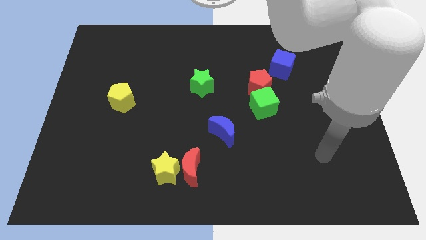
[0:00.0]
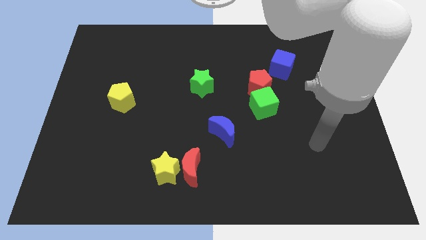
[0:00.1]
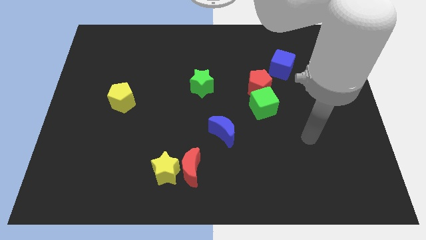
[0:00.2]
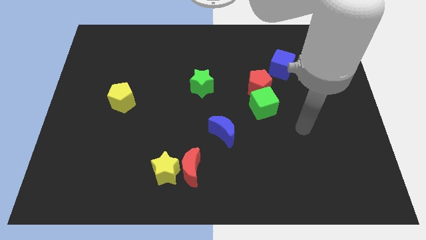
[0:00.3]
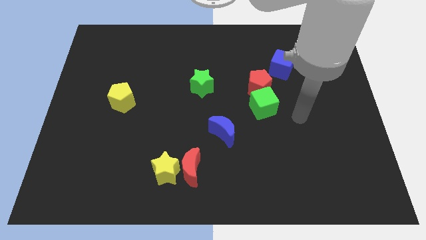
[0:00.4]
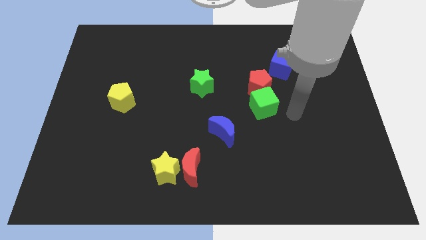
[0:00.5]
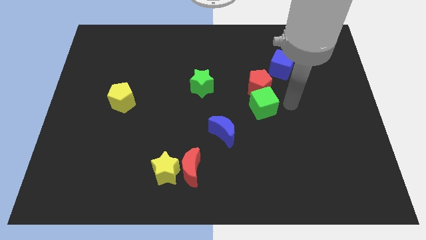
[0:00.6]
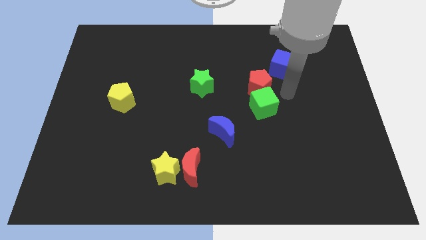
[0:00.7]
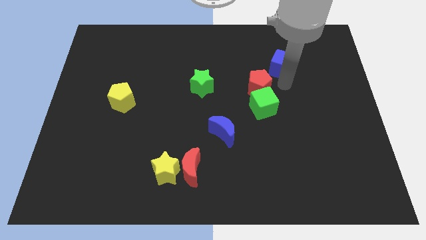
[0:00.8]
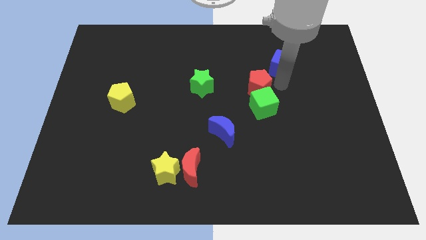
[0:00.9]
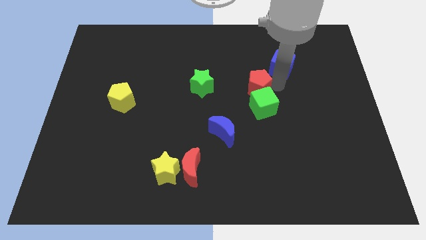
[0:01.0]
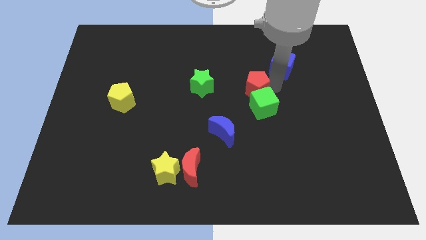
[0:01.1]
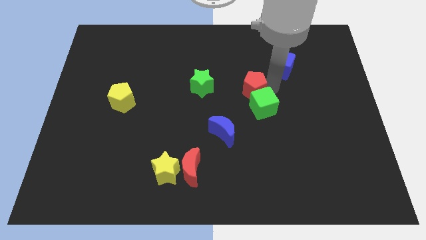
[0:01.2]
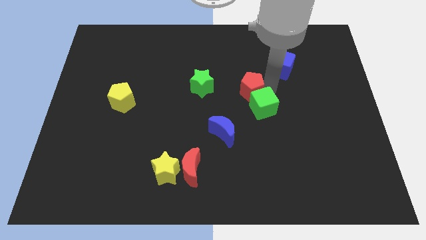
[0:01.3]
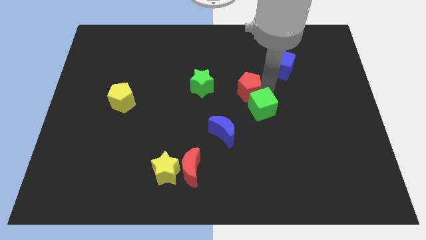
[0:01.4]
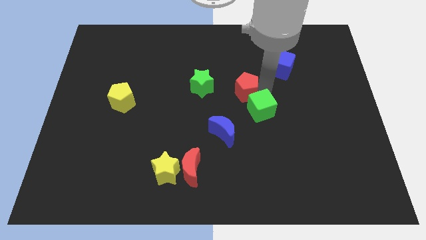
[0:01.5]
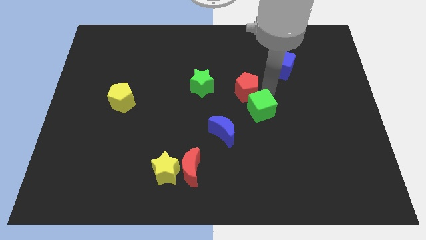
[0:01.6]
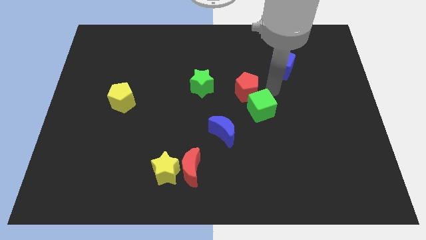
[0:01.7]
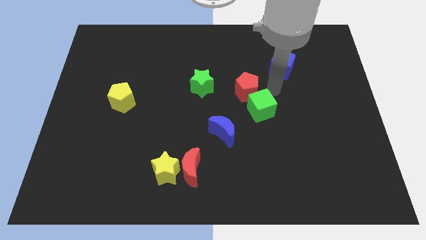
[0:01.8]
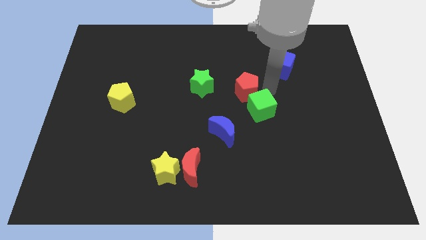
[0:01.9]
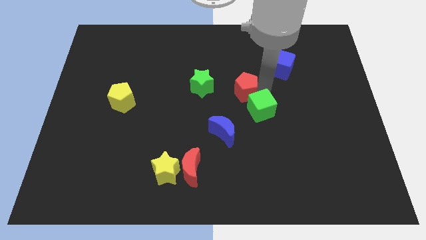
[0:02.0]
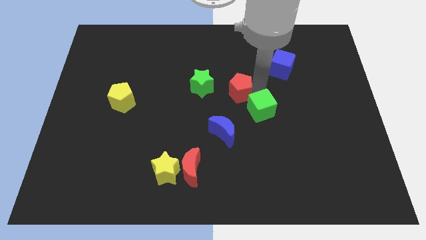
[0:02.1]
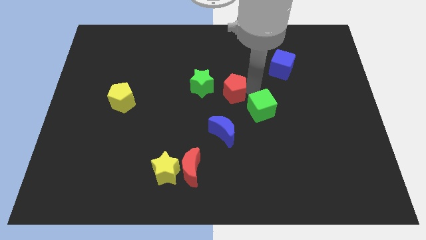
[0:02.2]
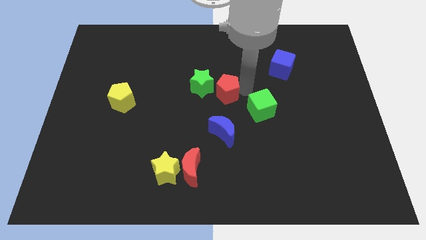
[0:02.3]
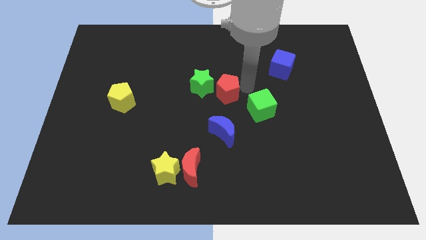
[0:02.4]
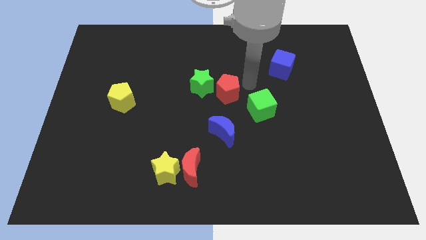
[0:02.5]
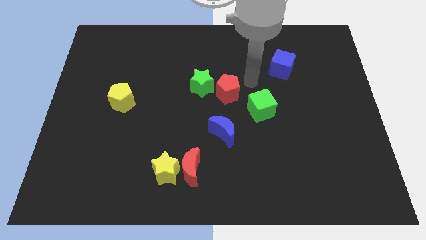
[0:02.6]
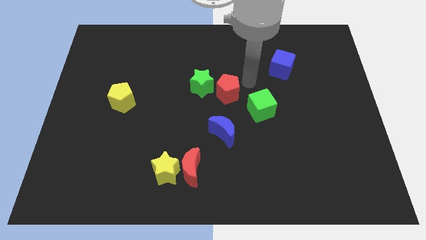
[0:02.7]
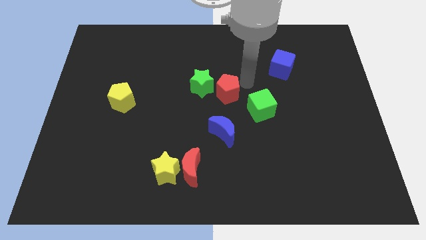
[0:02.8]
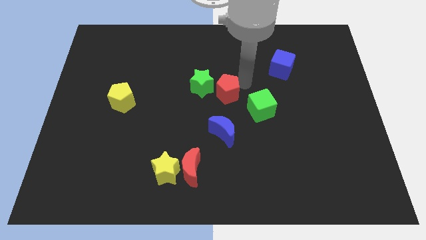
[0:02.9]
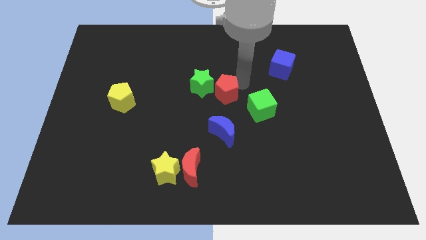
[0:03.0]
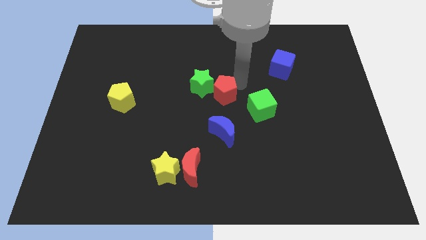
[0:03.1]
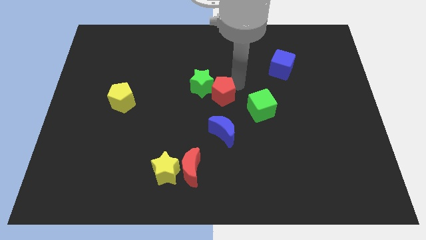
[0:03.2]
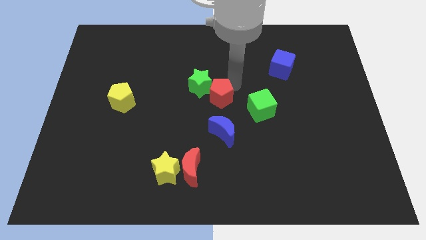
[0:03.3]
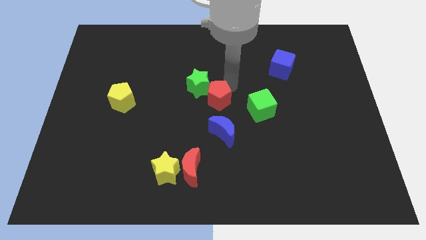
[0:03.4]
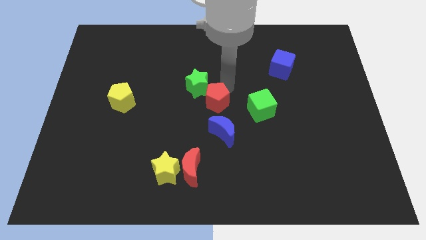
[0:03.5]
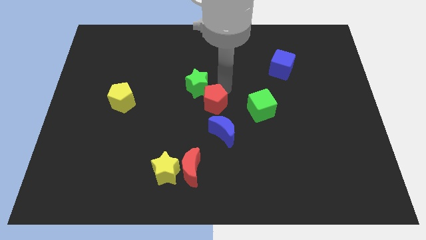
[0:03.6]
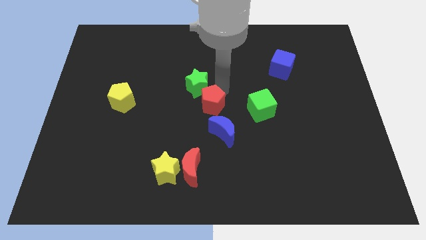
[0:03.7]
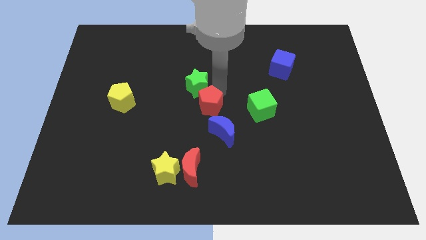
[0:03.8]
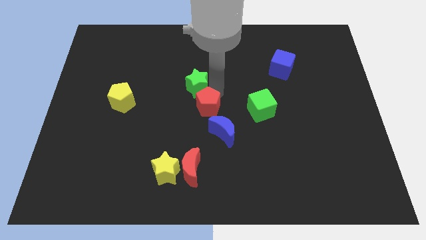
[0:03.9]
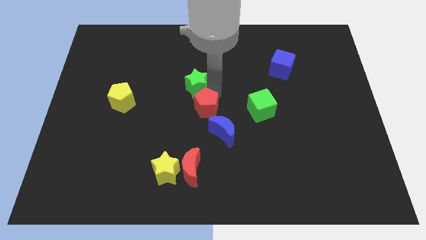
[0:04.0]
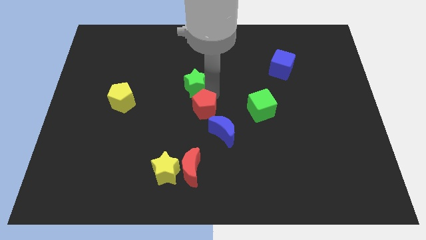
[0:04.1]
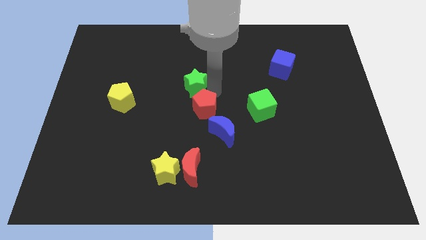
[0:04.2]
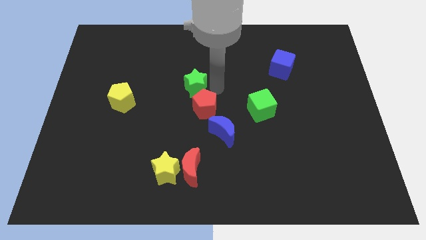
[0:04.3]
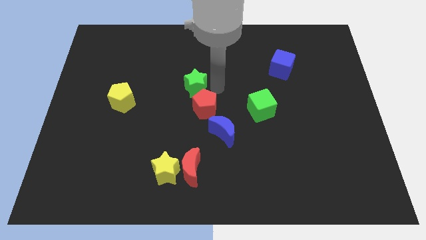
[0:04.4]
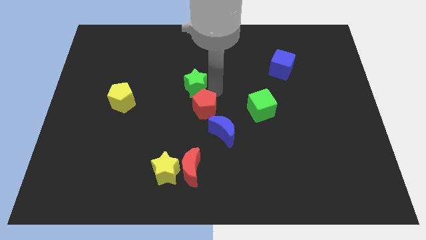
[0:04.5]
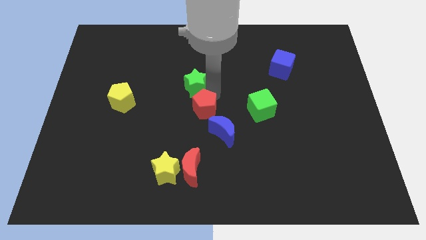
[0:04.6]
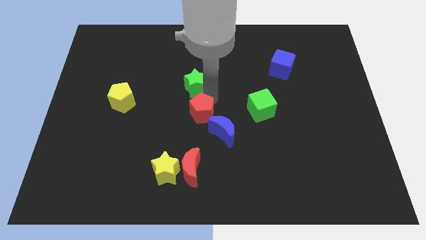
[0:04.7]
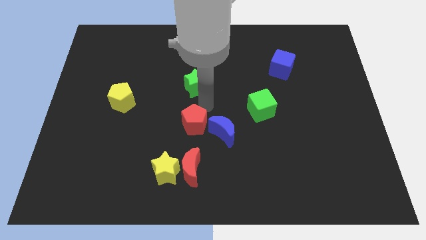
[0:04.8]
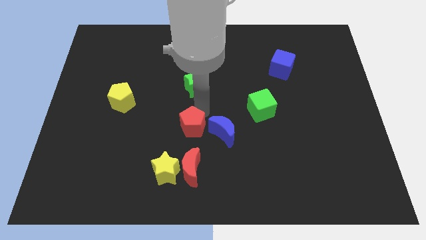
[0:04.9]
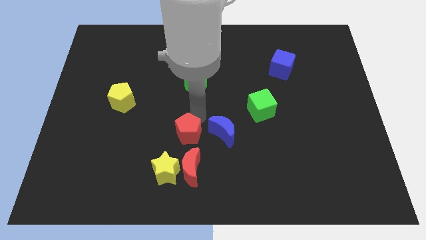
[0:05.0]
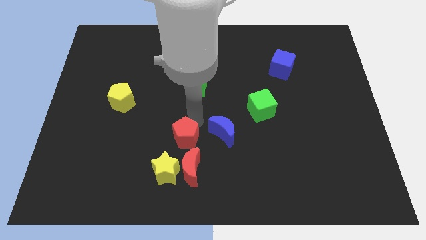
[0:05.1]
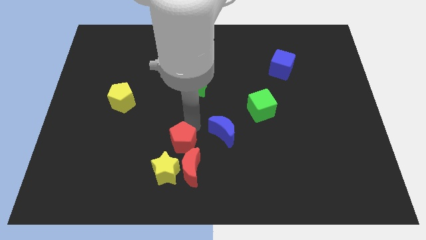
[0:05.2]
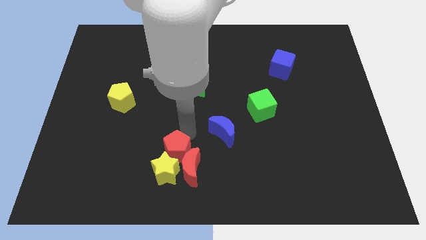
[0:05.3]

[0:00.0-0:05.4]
put the red pentagon next to the yellow star

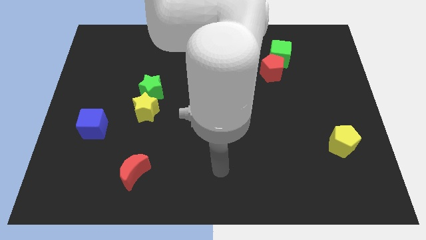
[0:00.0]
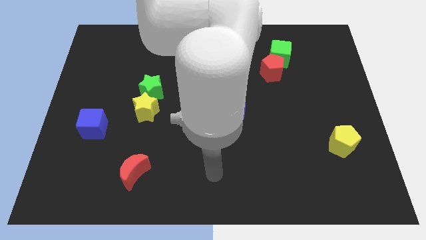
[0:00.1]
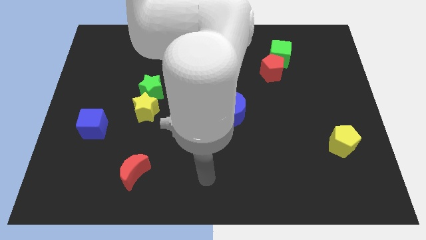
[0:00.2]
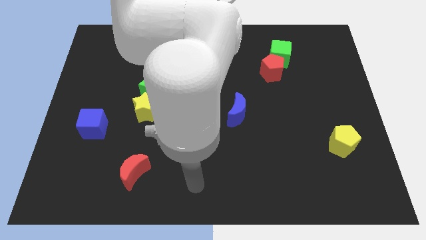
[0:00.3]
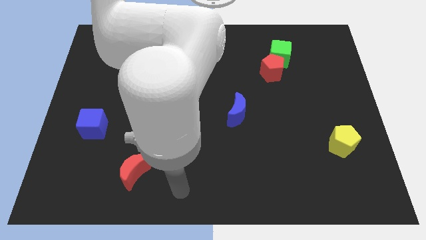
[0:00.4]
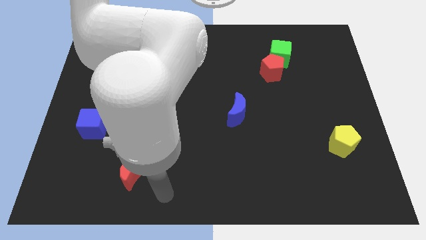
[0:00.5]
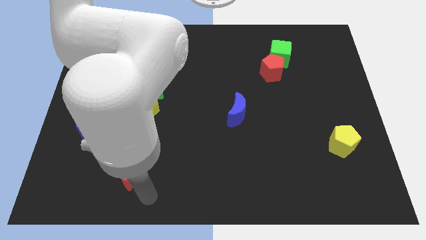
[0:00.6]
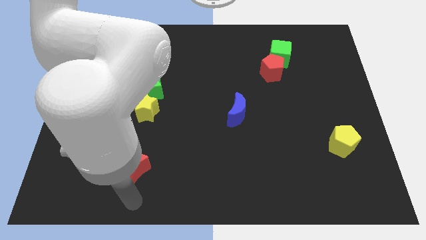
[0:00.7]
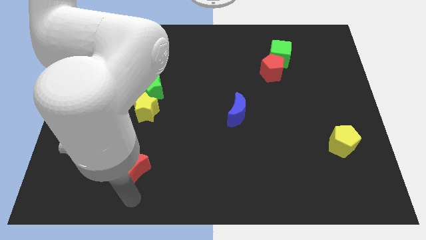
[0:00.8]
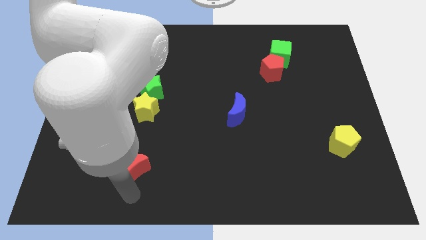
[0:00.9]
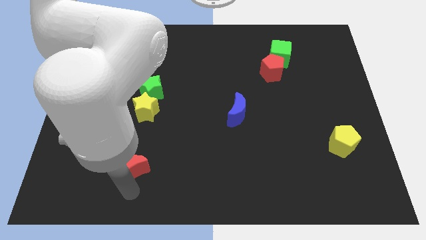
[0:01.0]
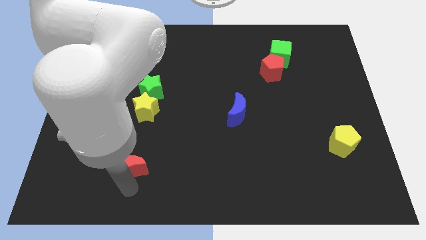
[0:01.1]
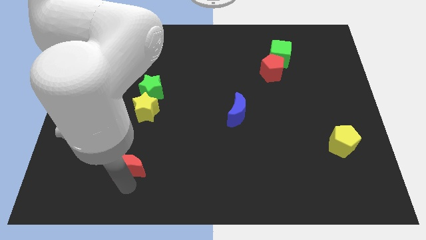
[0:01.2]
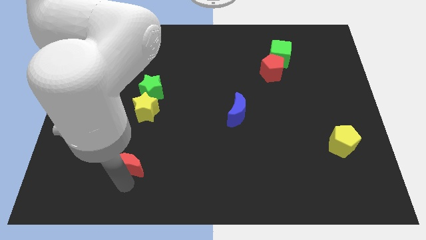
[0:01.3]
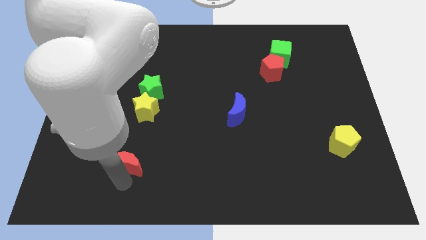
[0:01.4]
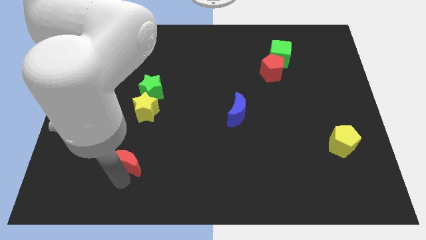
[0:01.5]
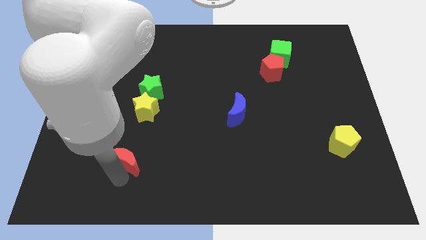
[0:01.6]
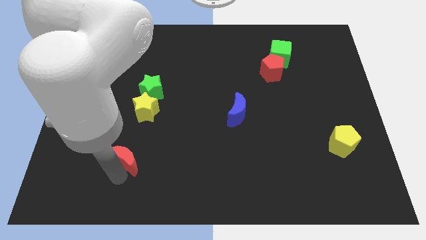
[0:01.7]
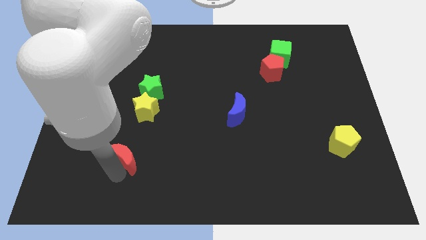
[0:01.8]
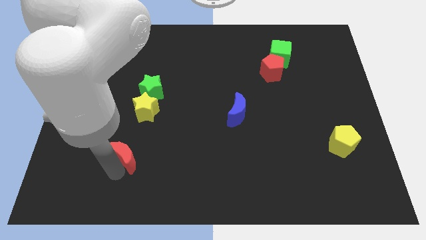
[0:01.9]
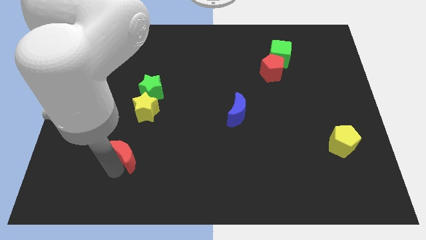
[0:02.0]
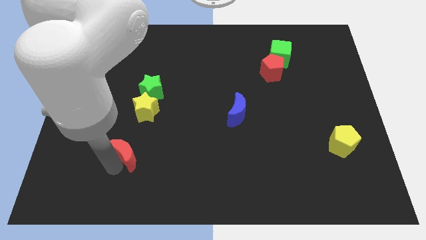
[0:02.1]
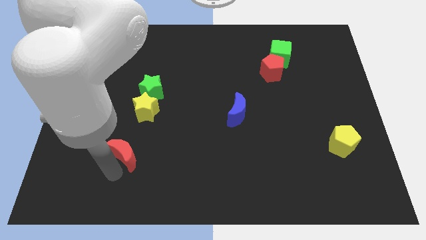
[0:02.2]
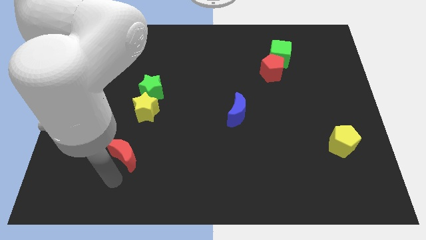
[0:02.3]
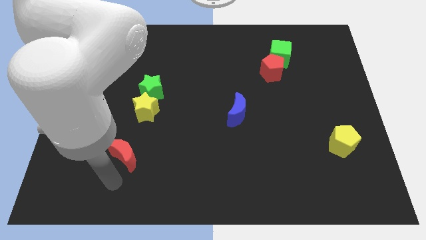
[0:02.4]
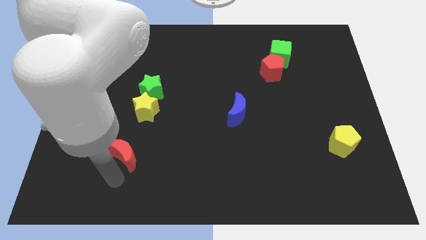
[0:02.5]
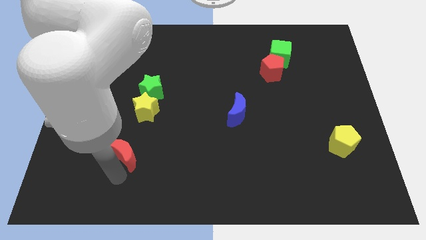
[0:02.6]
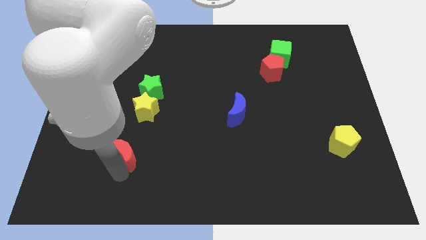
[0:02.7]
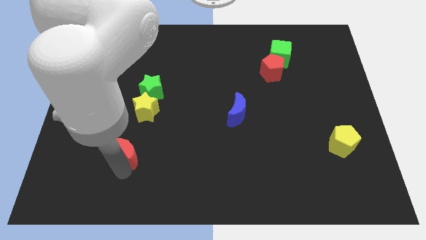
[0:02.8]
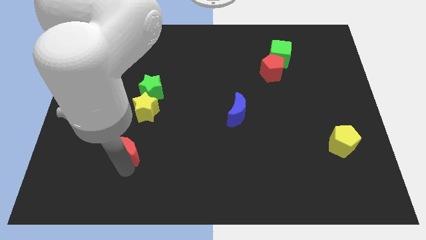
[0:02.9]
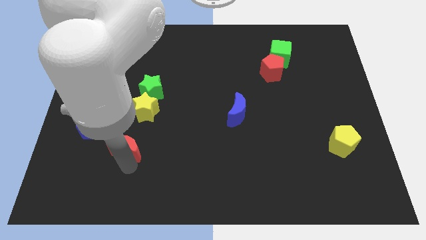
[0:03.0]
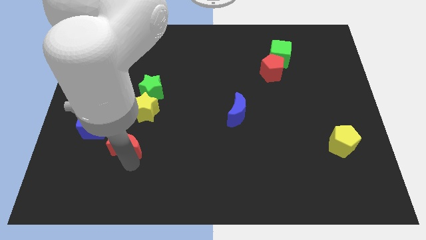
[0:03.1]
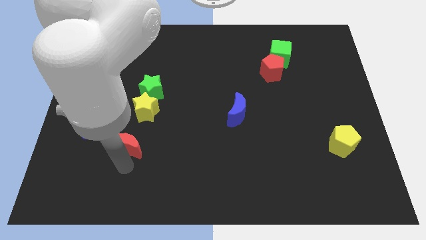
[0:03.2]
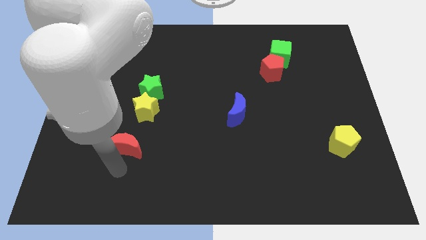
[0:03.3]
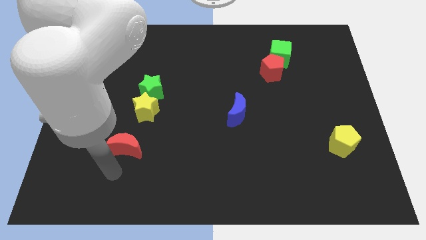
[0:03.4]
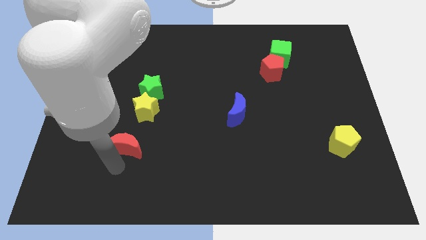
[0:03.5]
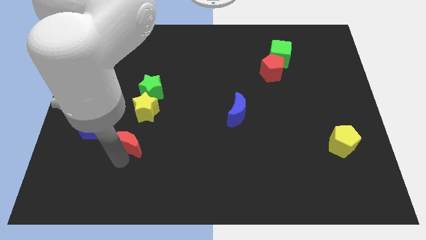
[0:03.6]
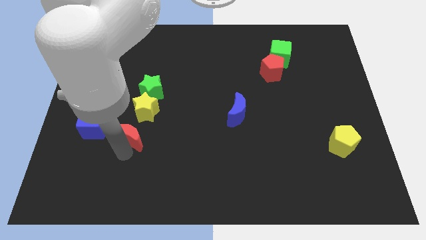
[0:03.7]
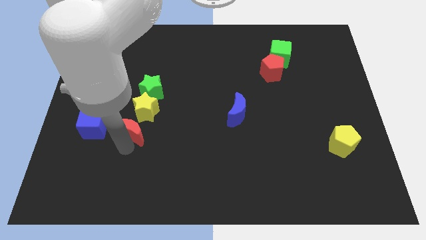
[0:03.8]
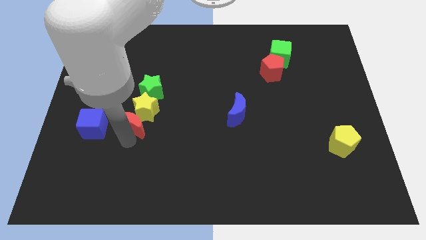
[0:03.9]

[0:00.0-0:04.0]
push the red moon next to the yellow star
